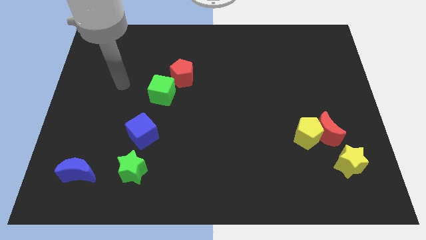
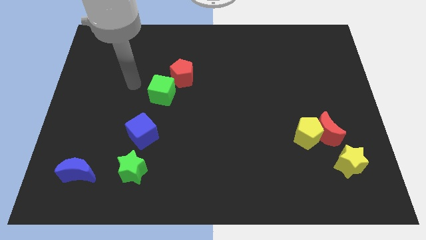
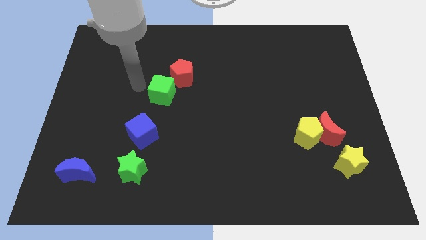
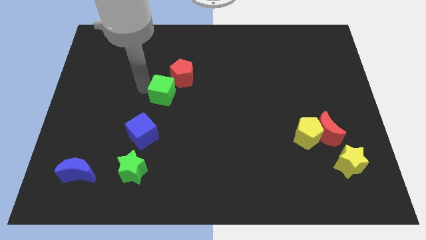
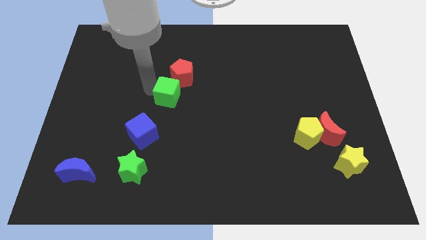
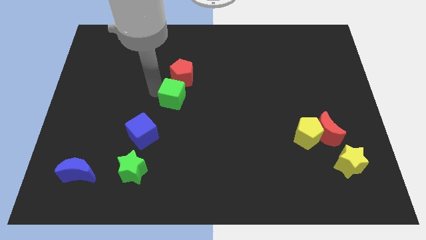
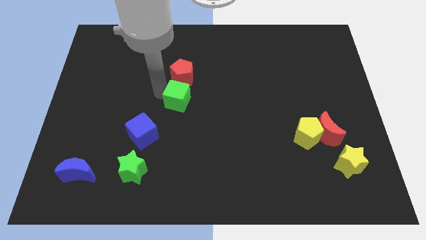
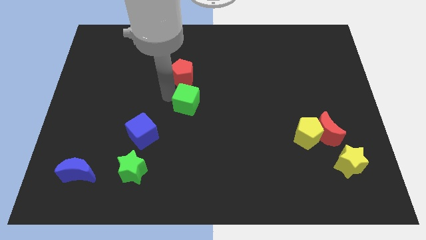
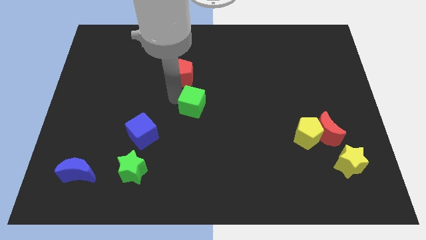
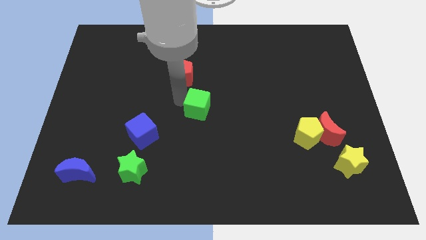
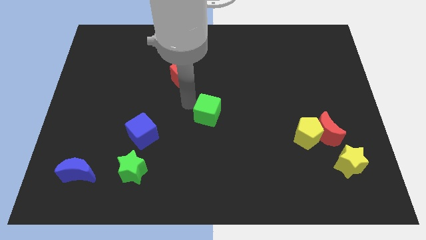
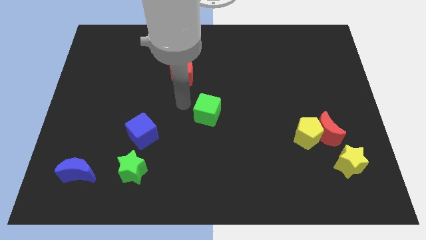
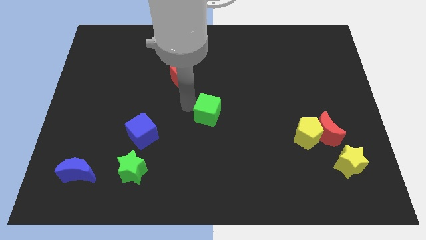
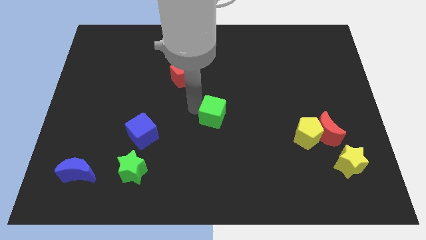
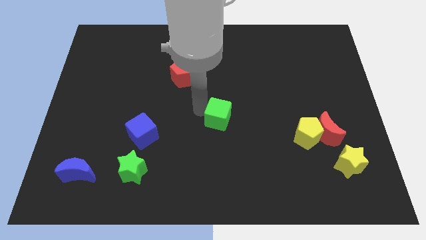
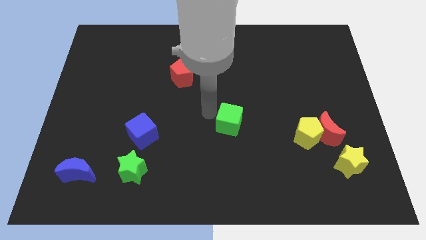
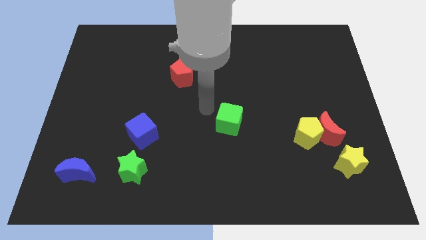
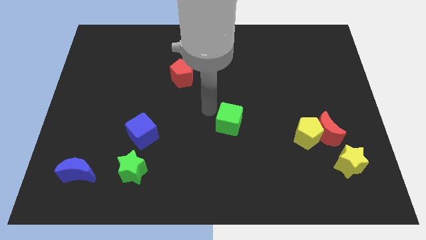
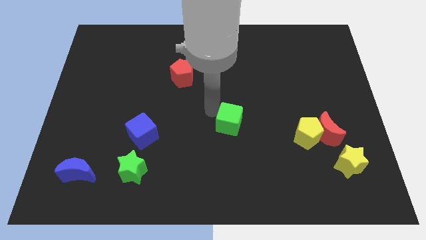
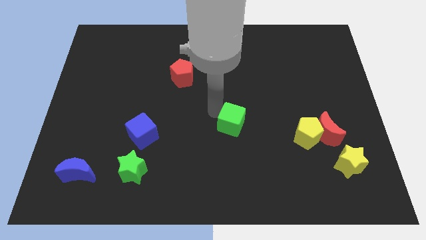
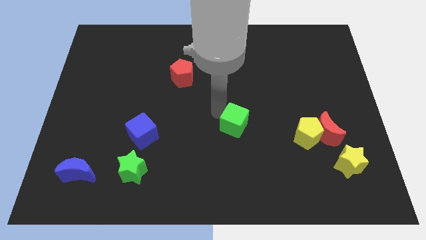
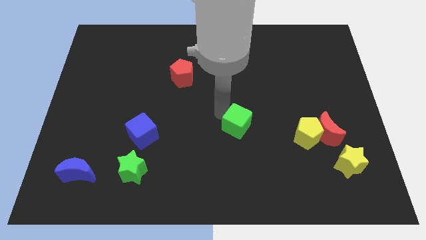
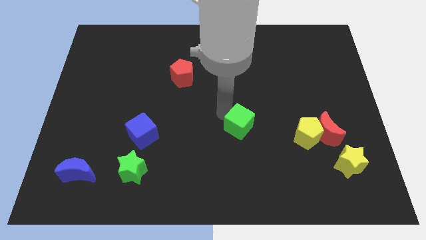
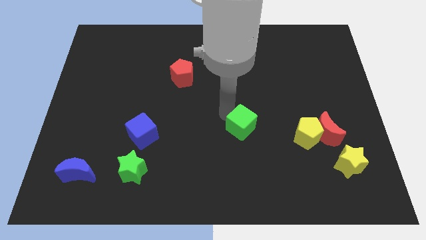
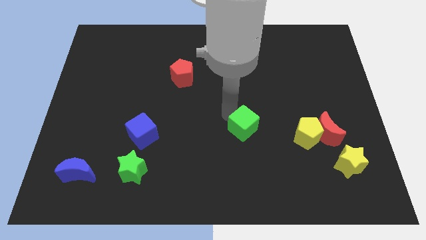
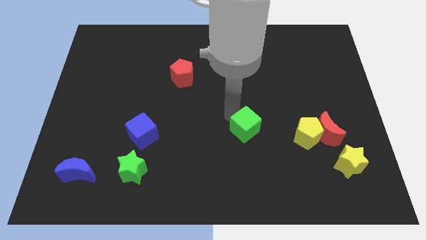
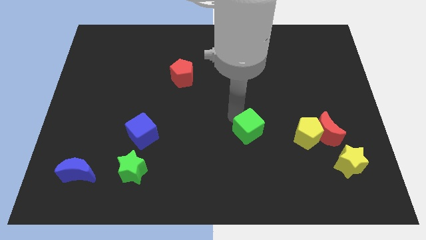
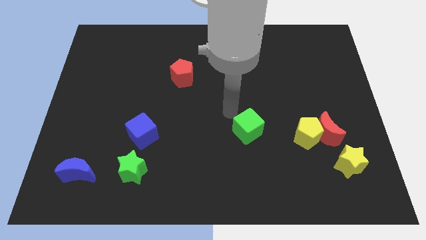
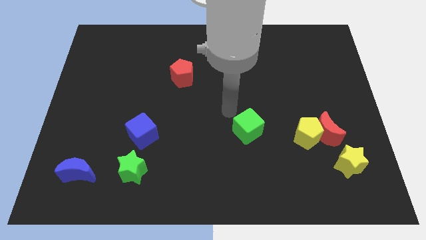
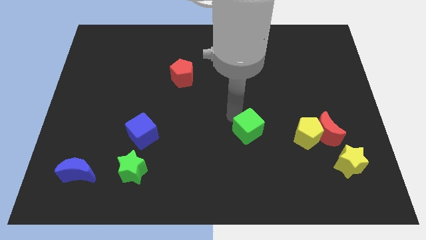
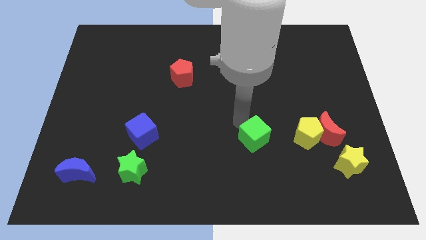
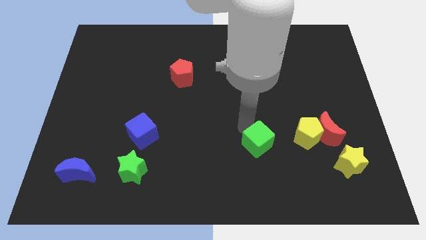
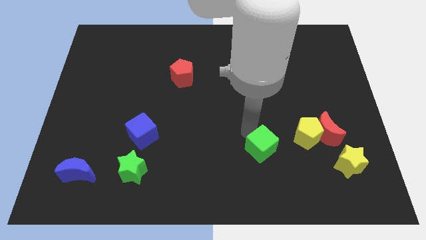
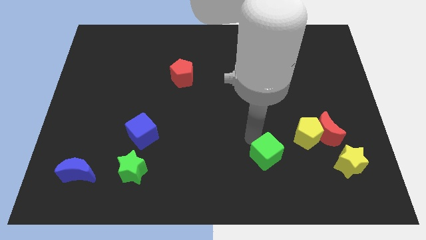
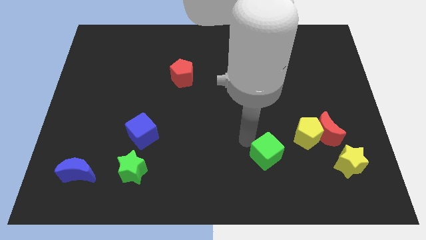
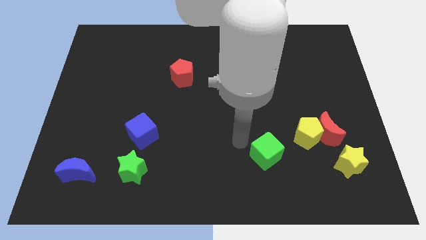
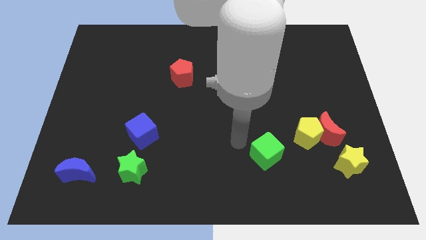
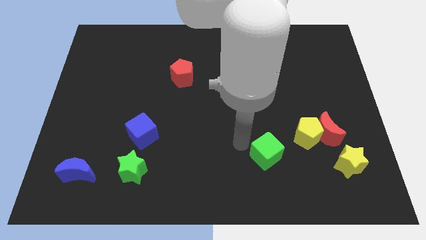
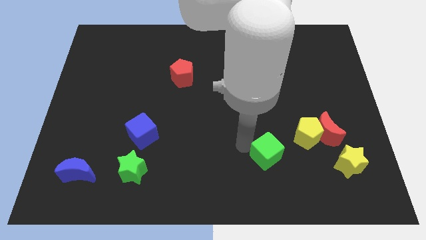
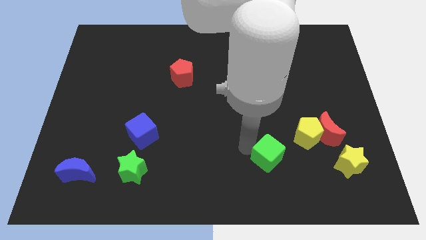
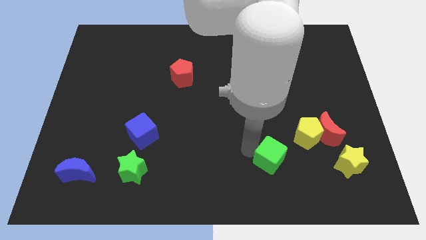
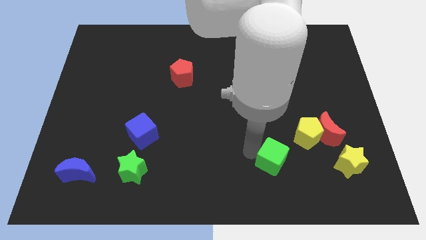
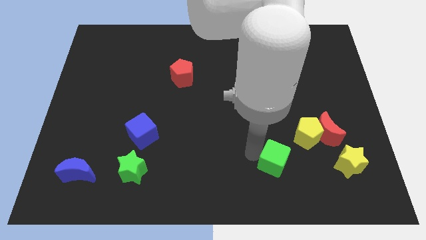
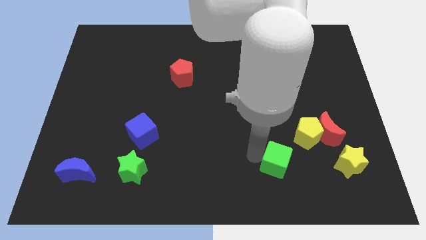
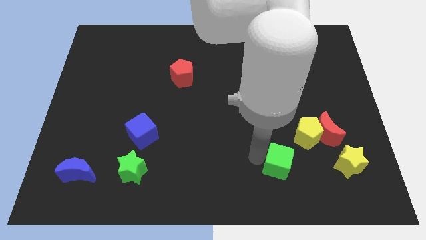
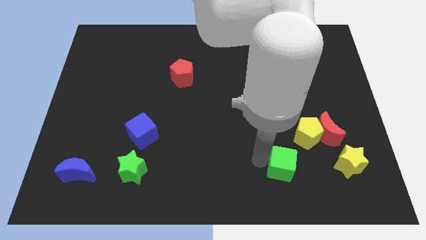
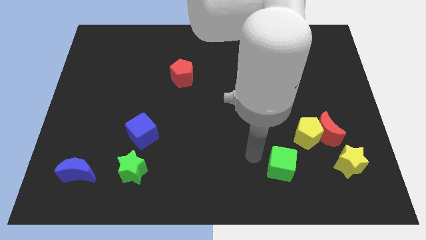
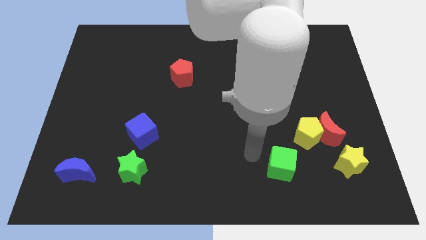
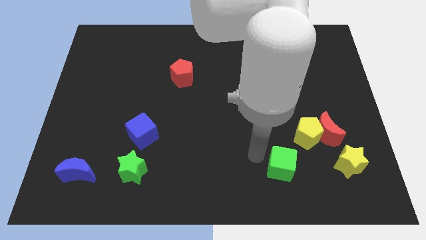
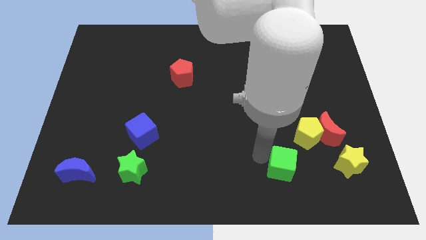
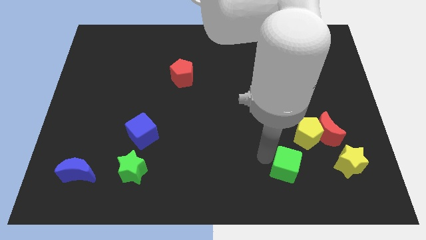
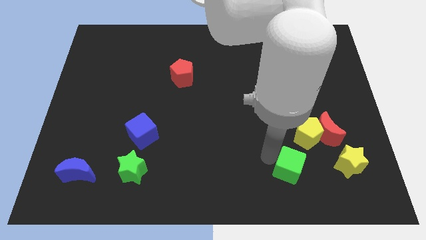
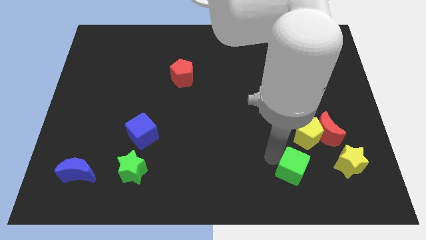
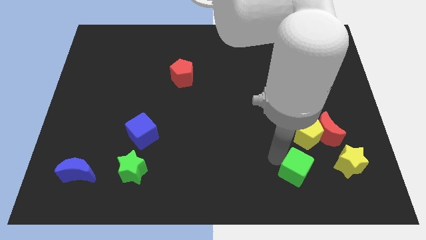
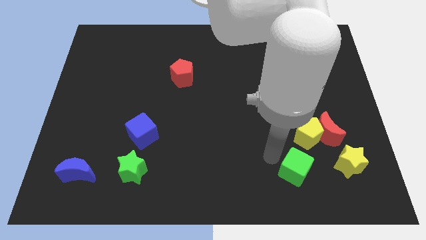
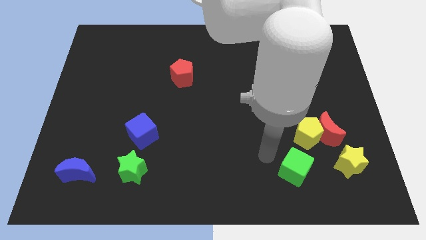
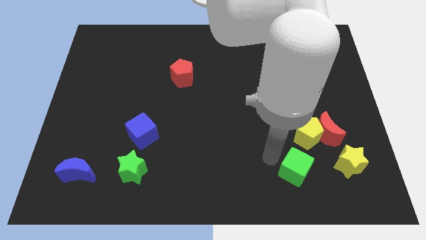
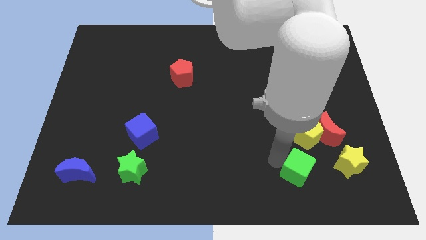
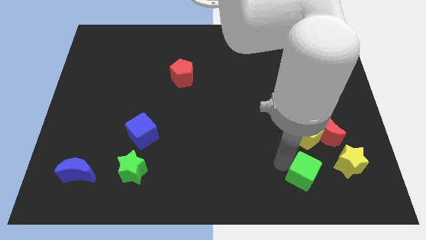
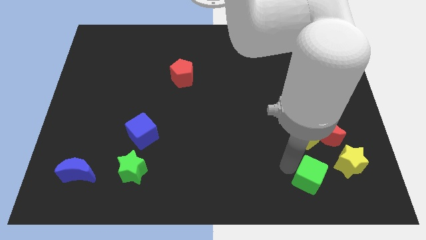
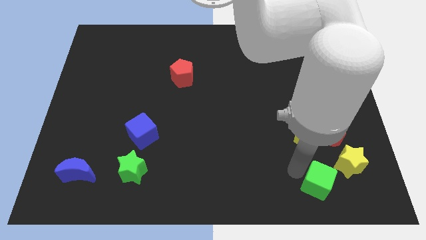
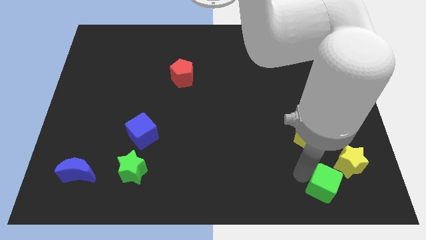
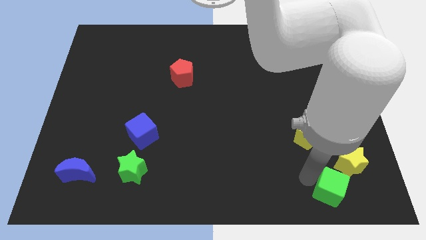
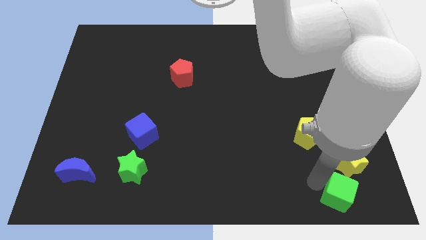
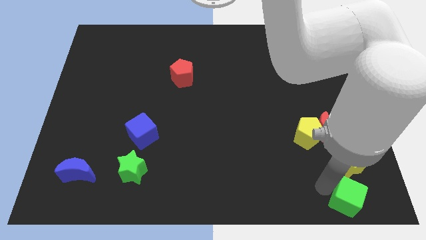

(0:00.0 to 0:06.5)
put the green cube to the lower right corner

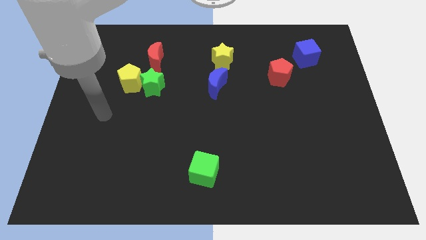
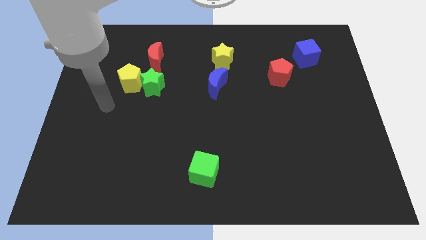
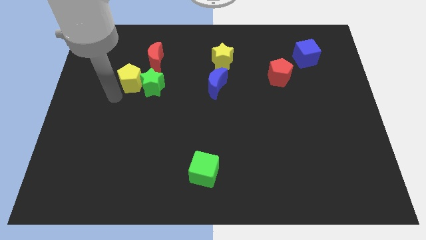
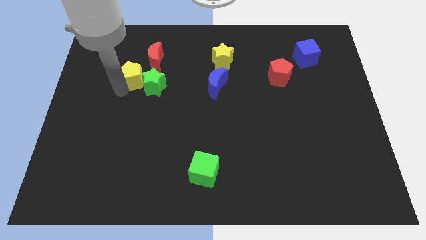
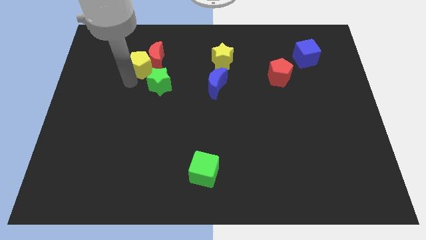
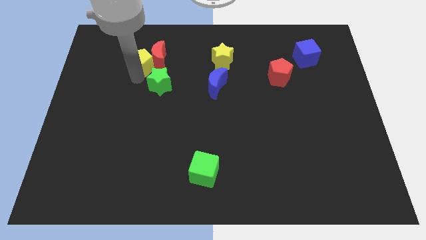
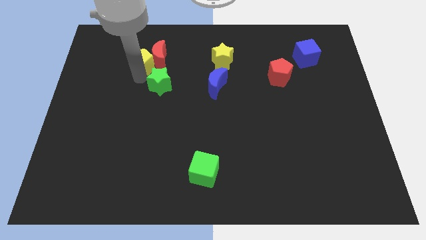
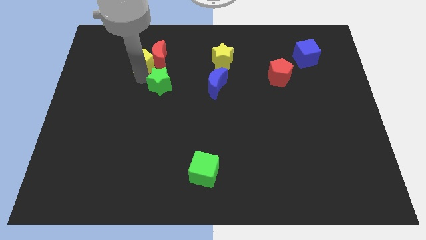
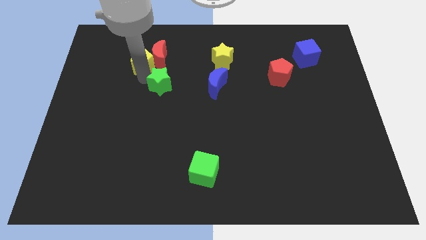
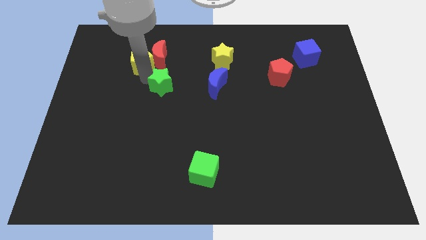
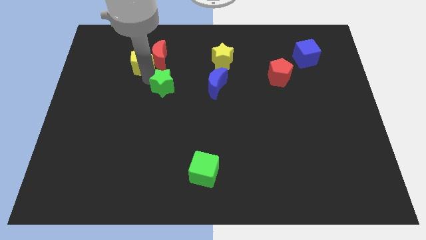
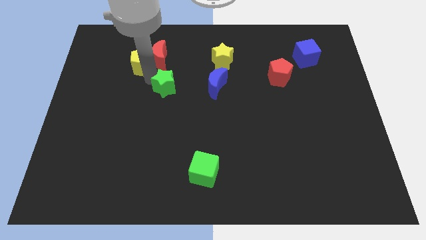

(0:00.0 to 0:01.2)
put the green star to the center
